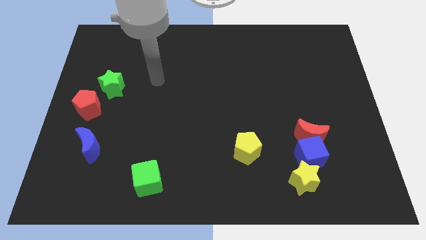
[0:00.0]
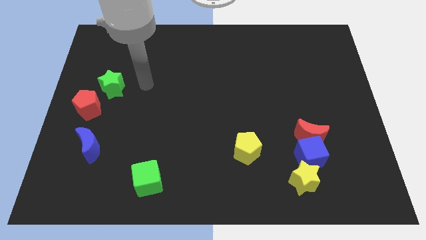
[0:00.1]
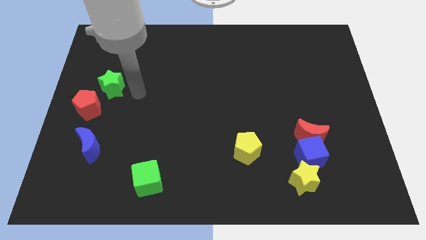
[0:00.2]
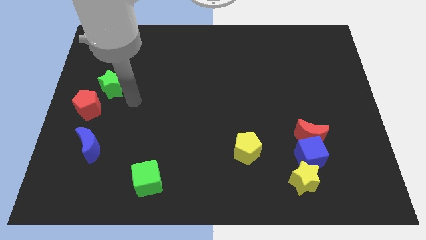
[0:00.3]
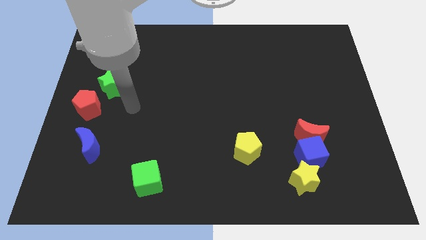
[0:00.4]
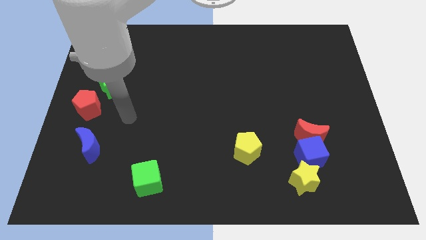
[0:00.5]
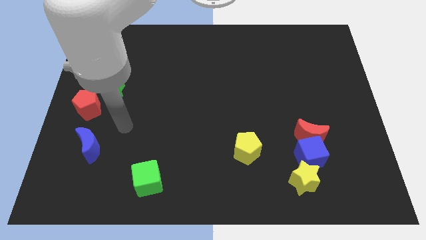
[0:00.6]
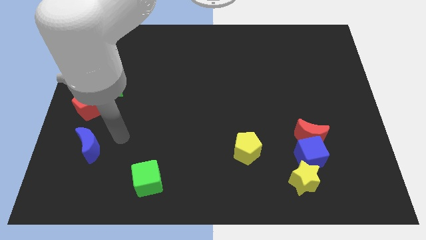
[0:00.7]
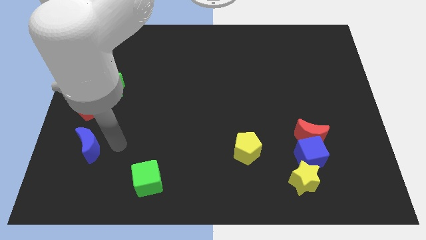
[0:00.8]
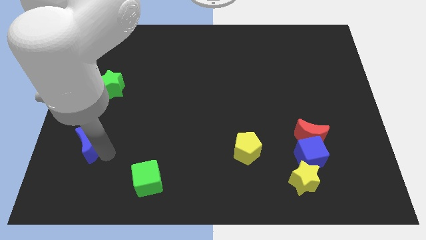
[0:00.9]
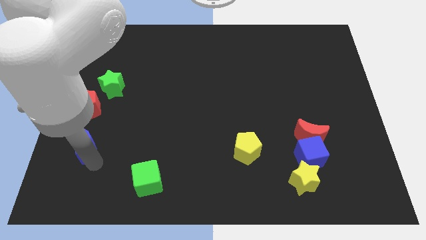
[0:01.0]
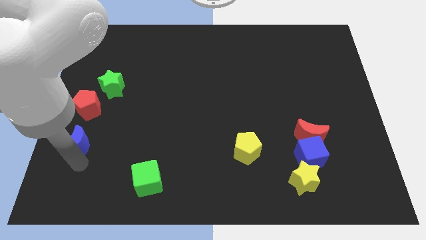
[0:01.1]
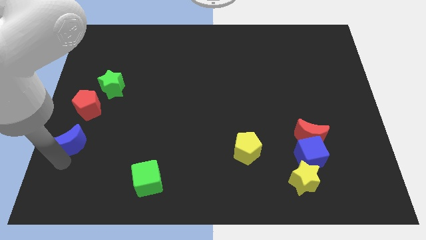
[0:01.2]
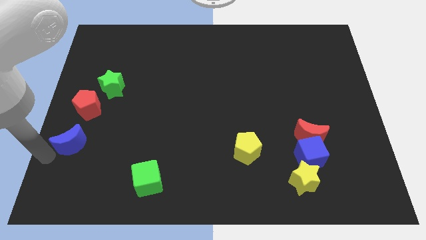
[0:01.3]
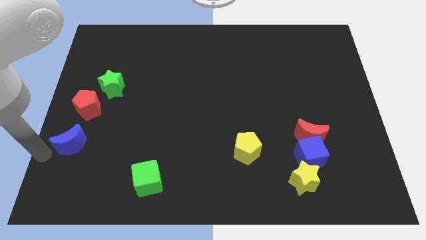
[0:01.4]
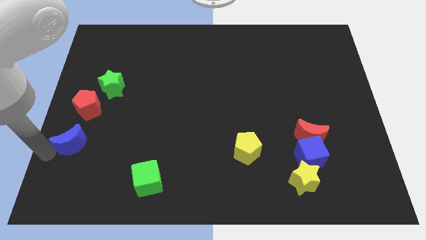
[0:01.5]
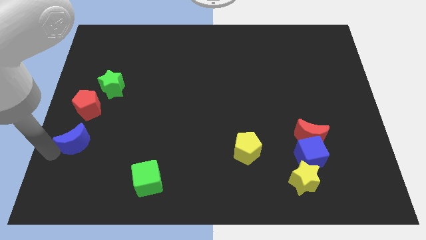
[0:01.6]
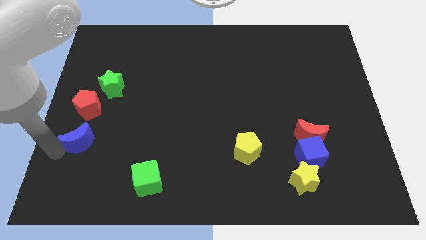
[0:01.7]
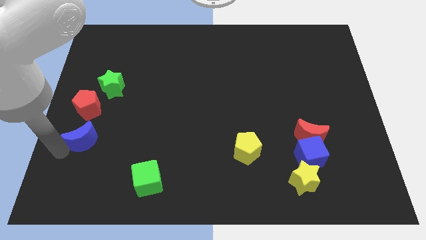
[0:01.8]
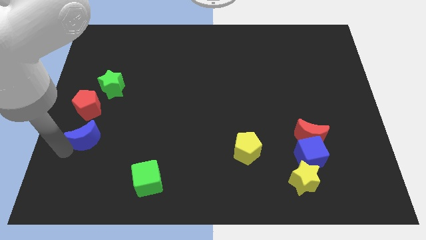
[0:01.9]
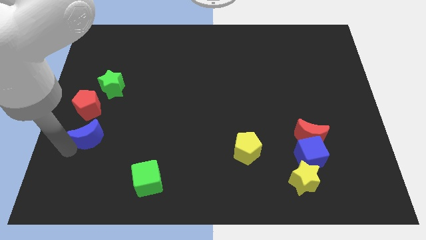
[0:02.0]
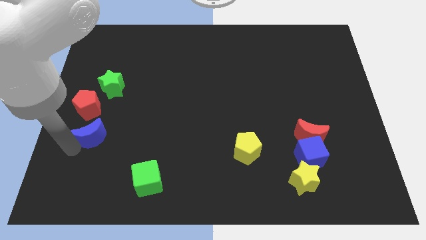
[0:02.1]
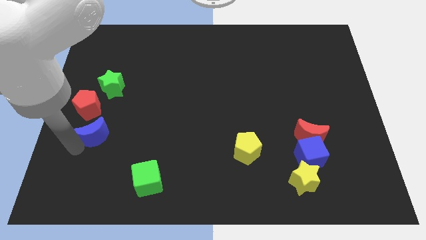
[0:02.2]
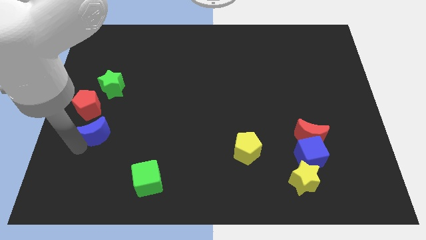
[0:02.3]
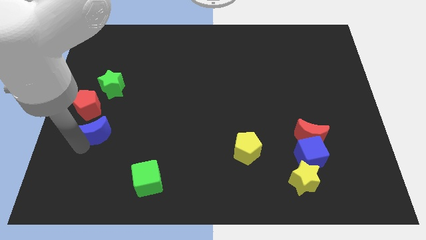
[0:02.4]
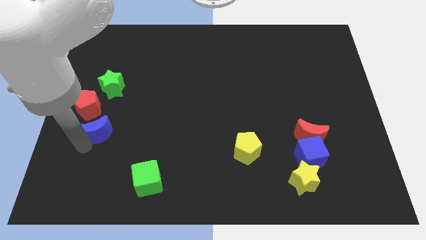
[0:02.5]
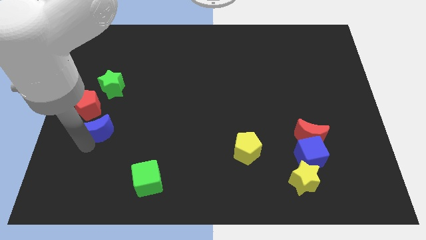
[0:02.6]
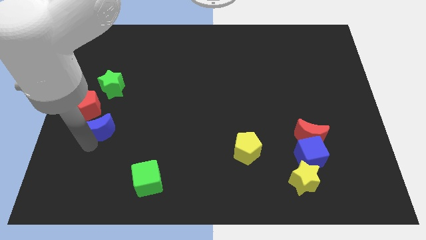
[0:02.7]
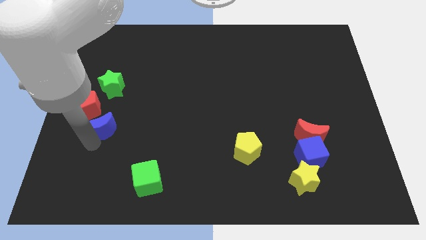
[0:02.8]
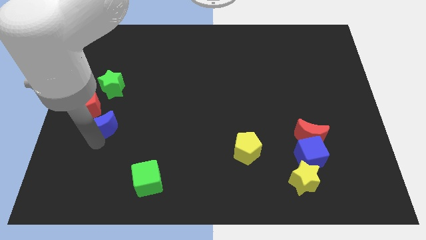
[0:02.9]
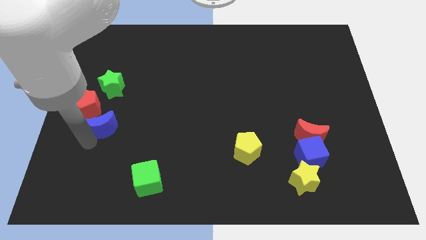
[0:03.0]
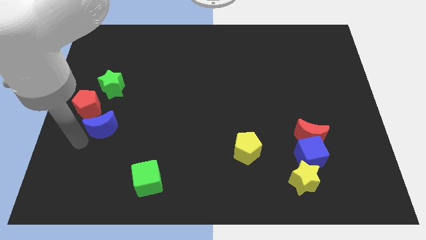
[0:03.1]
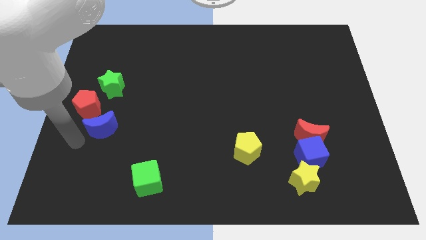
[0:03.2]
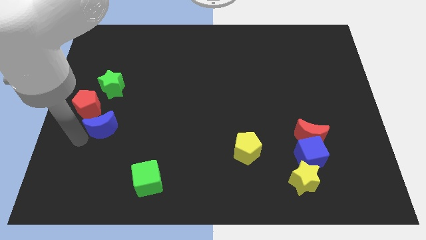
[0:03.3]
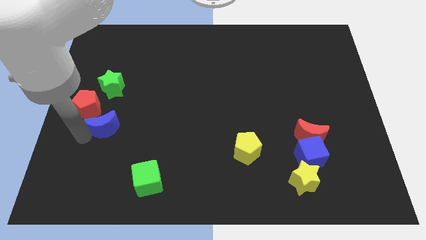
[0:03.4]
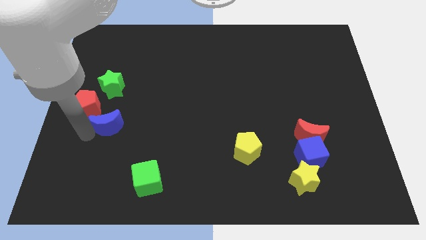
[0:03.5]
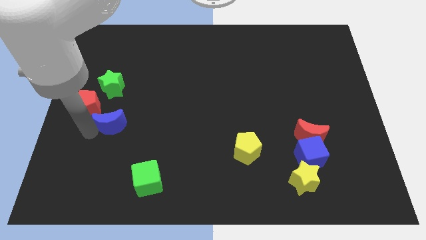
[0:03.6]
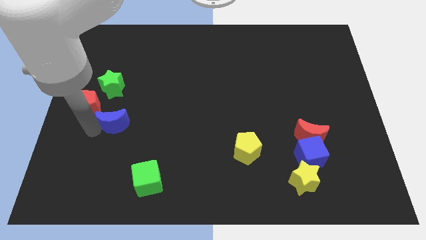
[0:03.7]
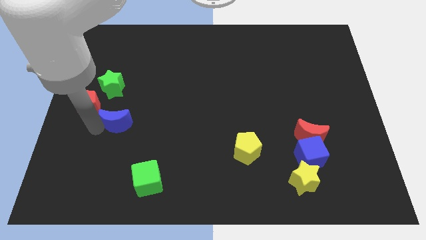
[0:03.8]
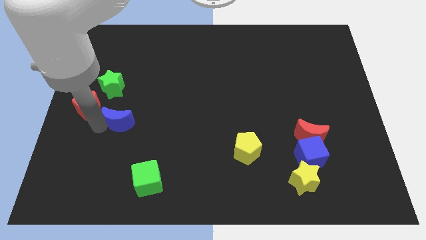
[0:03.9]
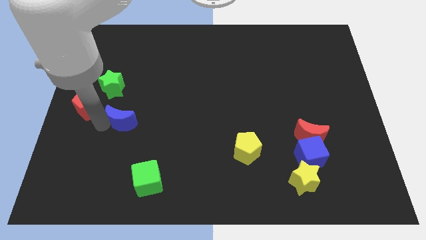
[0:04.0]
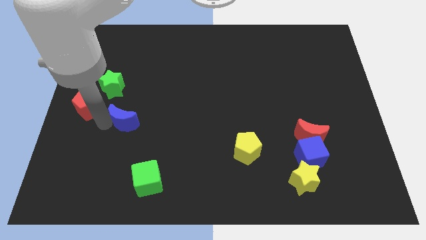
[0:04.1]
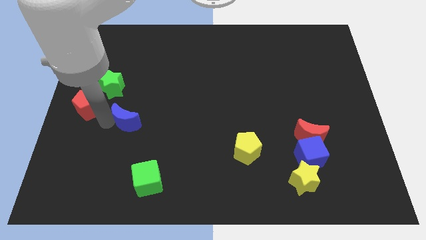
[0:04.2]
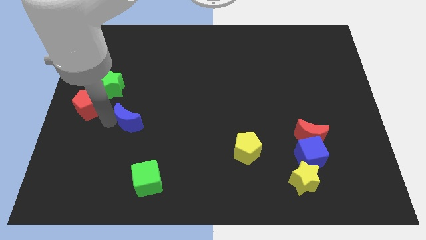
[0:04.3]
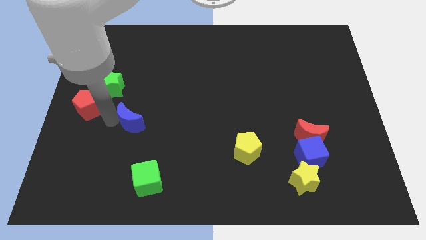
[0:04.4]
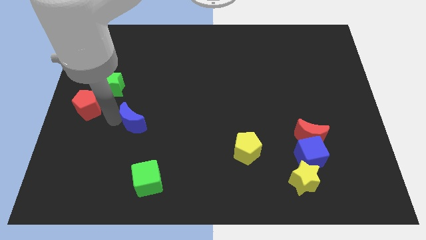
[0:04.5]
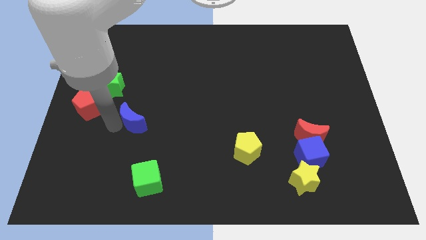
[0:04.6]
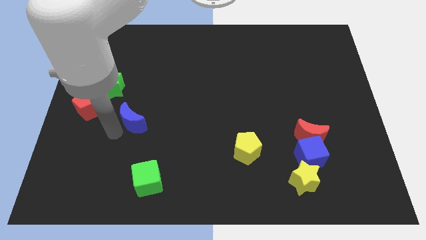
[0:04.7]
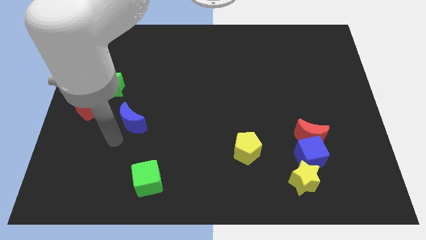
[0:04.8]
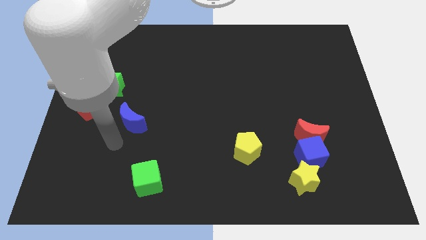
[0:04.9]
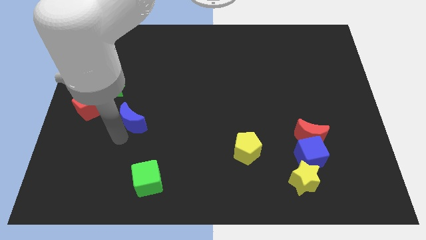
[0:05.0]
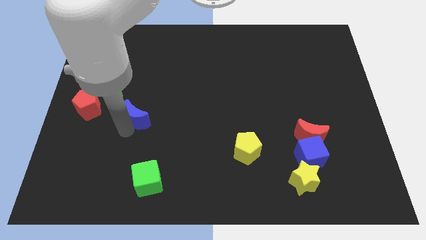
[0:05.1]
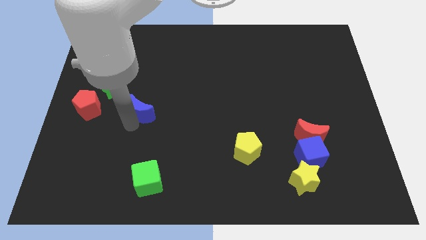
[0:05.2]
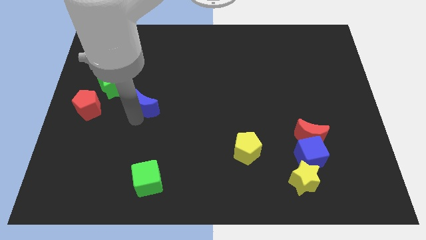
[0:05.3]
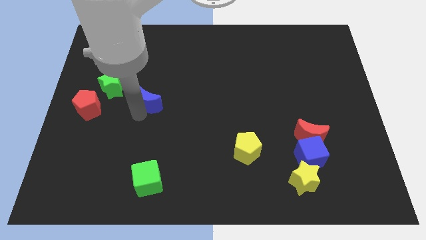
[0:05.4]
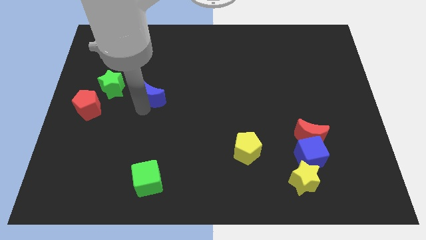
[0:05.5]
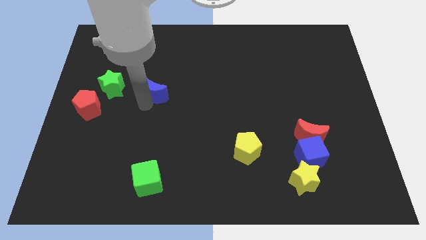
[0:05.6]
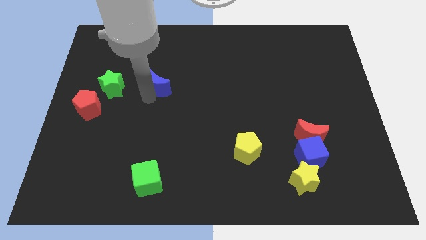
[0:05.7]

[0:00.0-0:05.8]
move the blue moon upwards and to the right diagonally

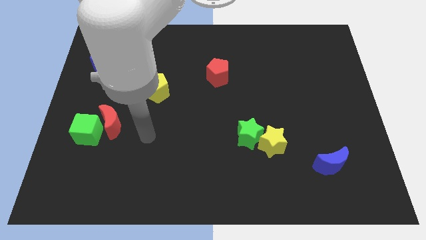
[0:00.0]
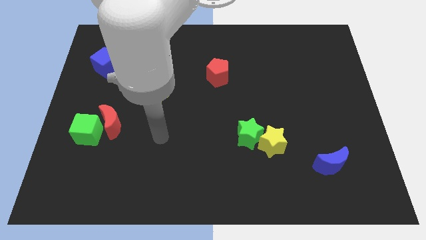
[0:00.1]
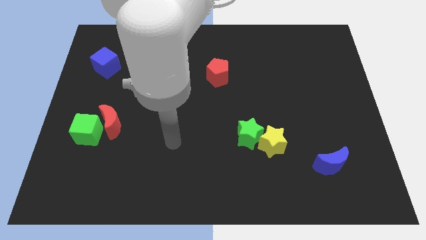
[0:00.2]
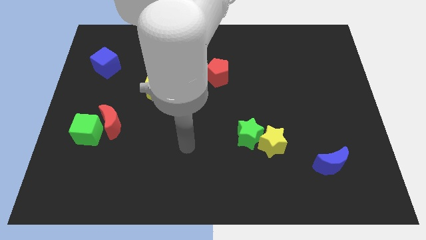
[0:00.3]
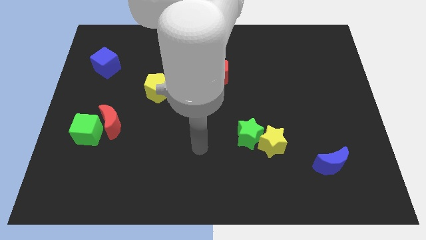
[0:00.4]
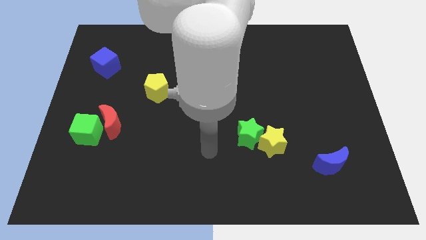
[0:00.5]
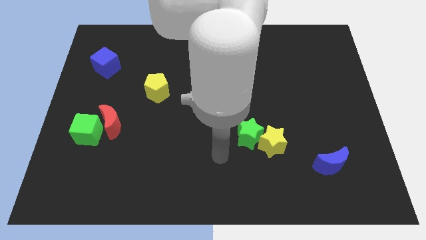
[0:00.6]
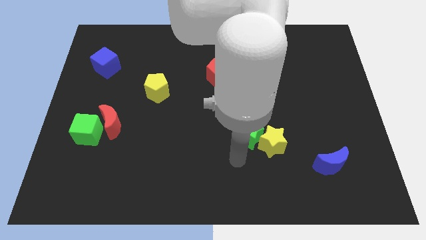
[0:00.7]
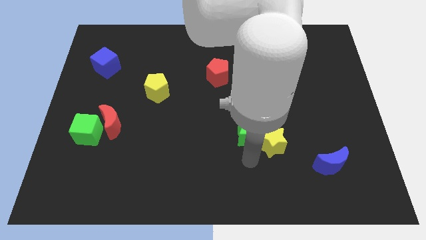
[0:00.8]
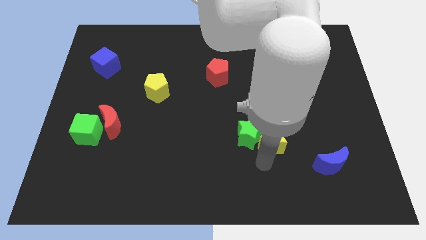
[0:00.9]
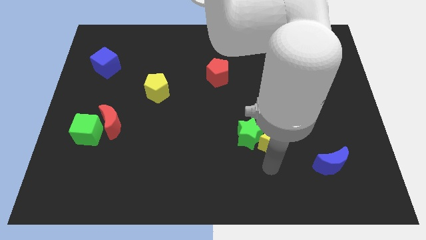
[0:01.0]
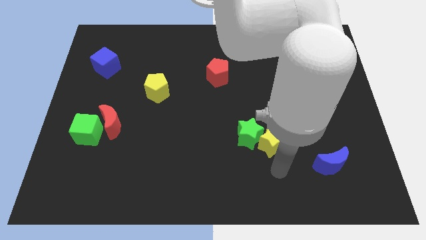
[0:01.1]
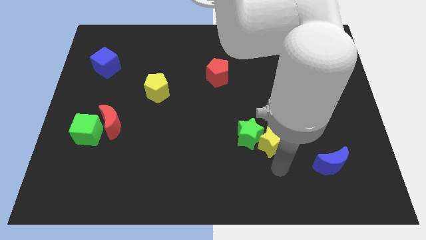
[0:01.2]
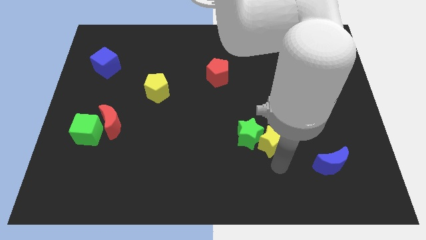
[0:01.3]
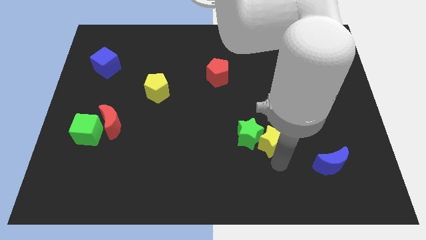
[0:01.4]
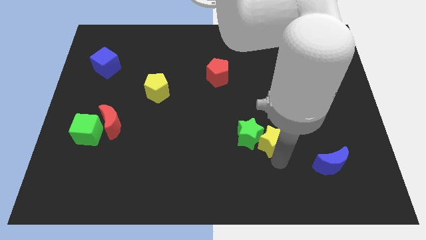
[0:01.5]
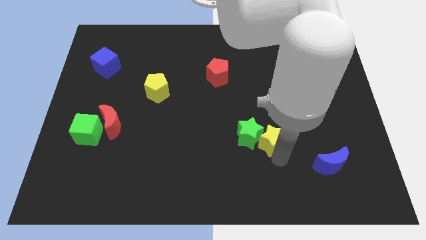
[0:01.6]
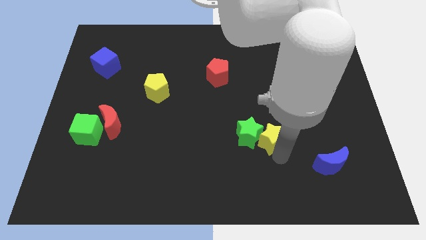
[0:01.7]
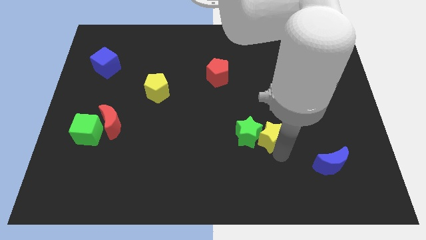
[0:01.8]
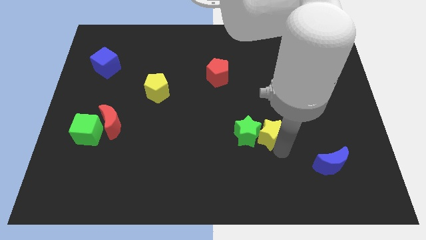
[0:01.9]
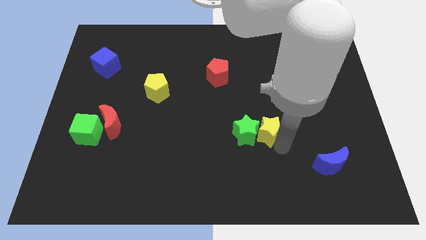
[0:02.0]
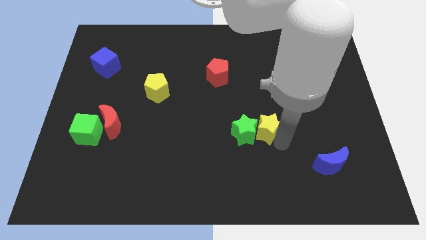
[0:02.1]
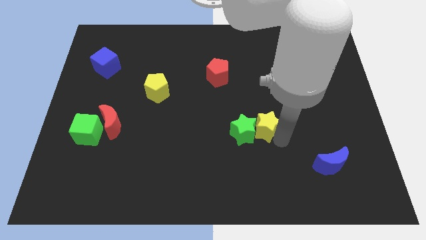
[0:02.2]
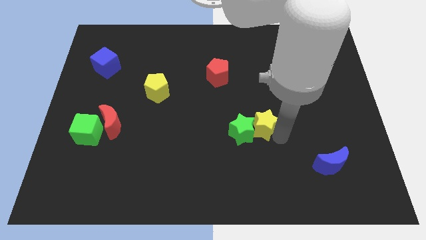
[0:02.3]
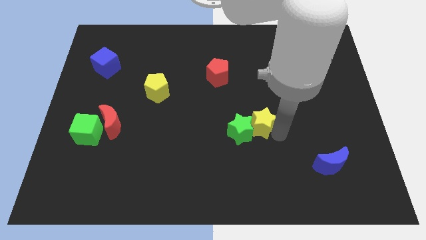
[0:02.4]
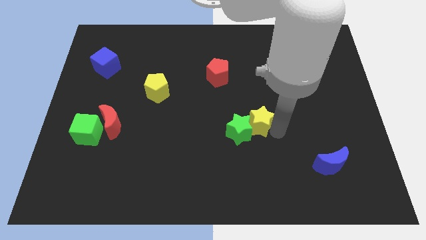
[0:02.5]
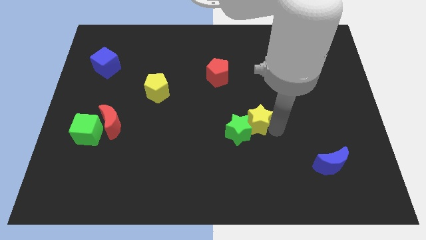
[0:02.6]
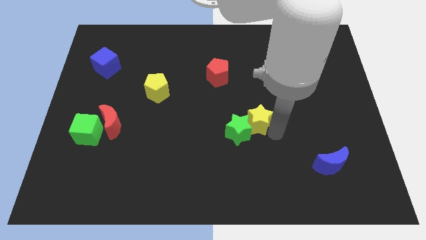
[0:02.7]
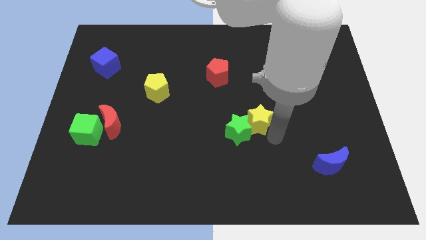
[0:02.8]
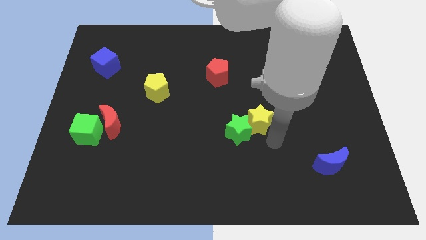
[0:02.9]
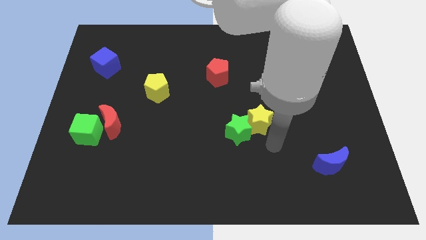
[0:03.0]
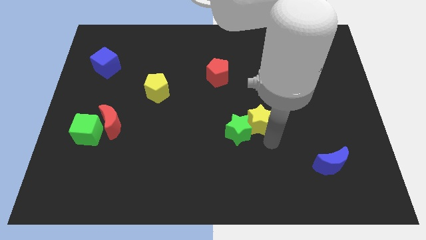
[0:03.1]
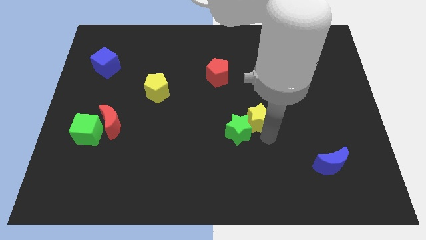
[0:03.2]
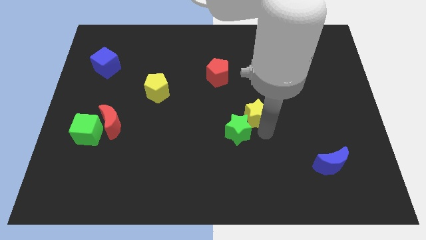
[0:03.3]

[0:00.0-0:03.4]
slightly slide the yellow star up and left diagonally
